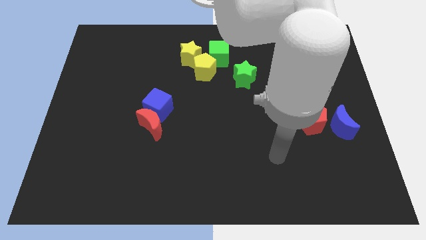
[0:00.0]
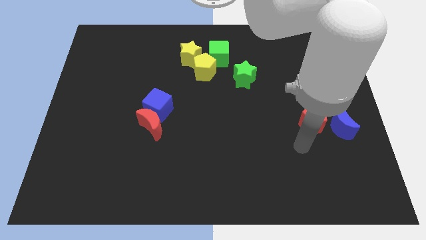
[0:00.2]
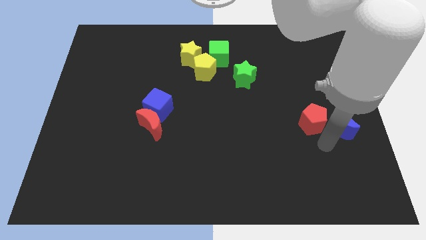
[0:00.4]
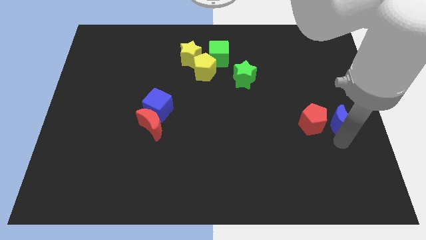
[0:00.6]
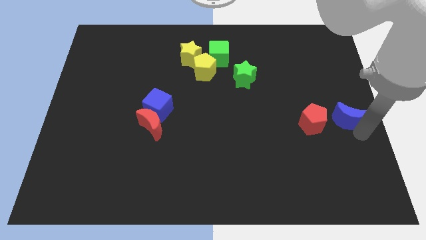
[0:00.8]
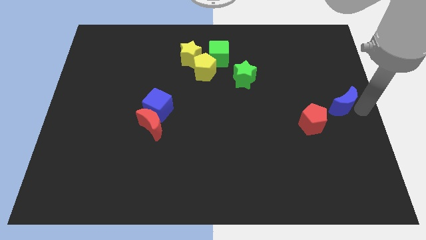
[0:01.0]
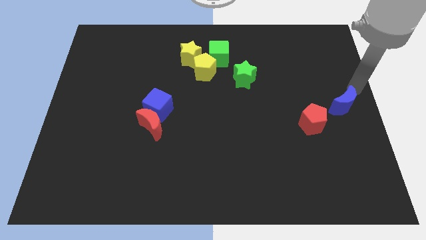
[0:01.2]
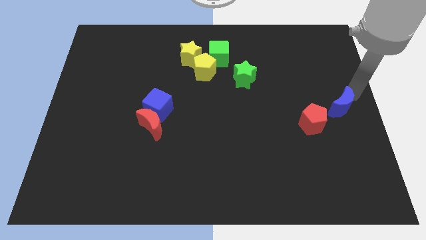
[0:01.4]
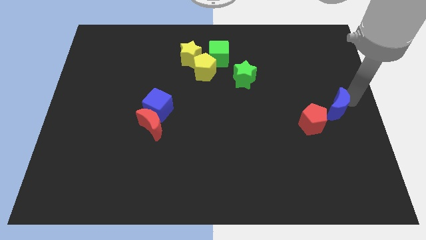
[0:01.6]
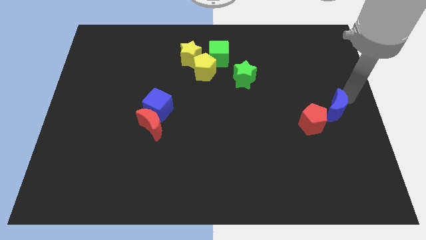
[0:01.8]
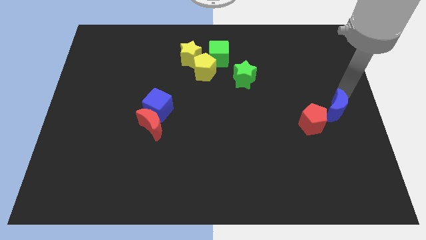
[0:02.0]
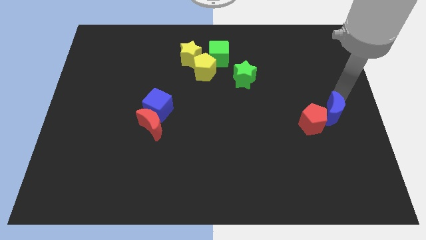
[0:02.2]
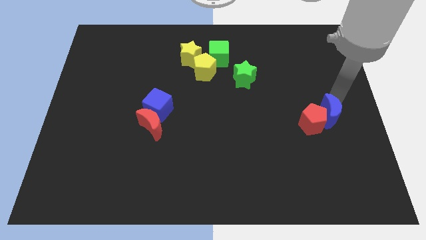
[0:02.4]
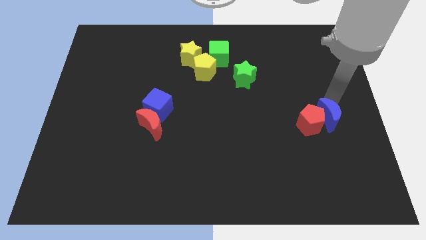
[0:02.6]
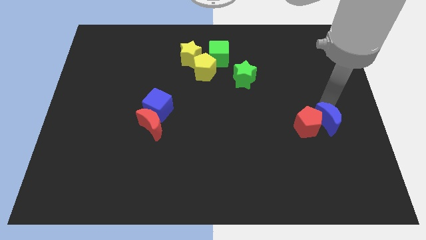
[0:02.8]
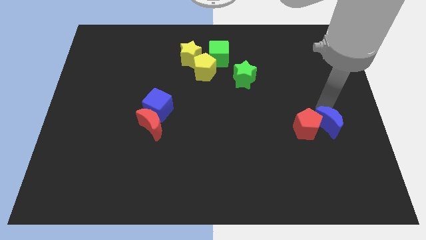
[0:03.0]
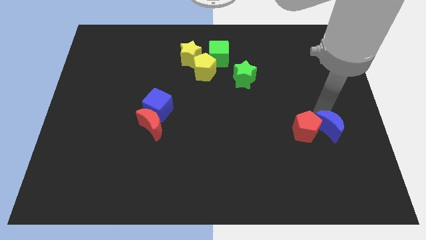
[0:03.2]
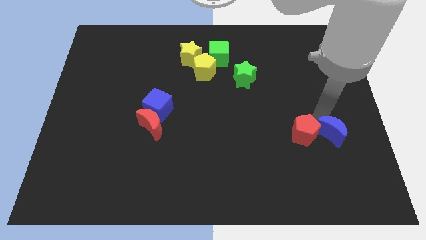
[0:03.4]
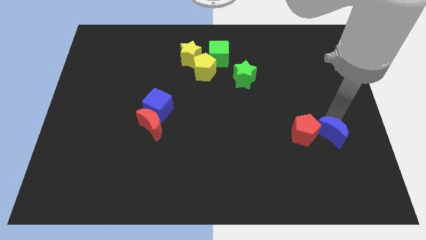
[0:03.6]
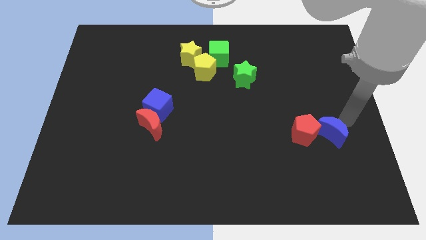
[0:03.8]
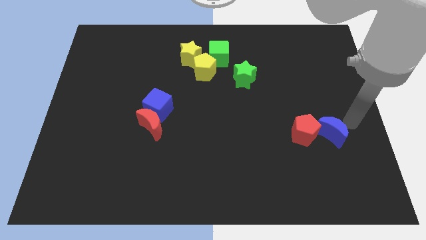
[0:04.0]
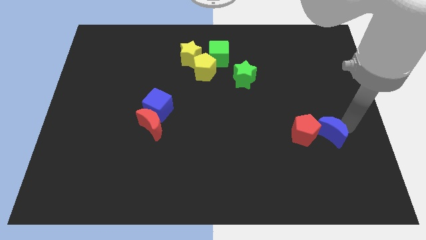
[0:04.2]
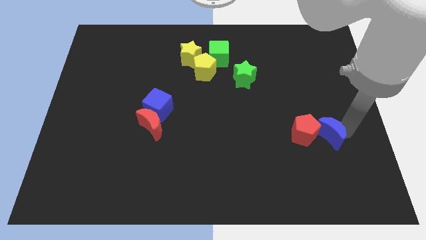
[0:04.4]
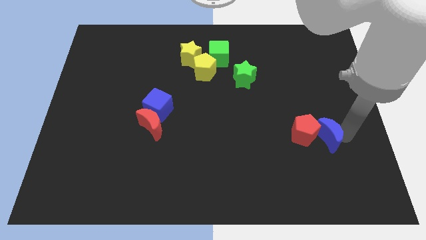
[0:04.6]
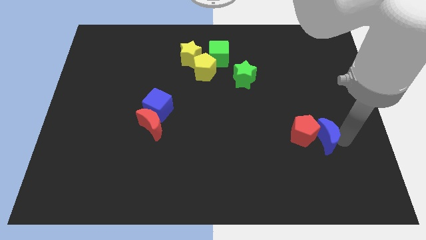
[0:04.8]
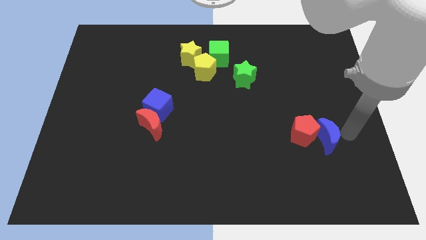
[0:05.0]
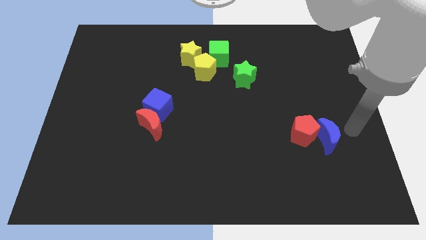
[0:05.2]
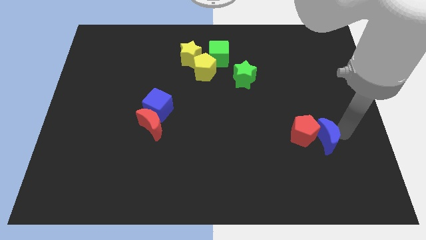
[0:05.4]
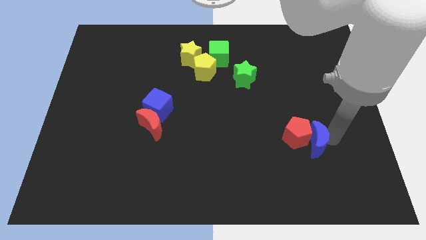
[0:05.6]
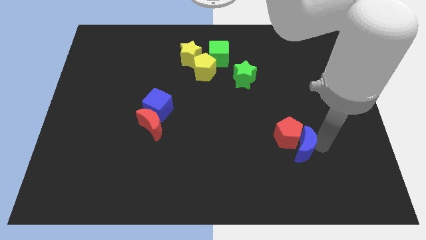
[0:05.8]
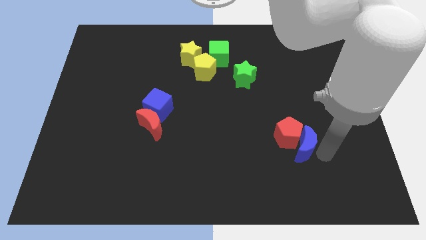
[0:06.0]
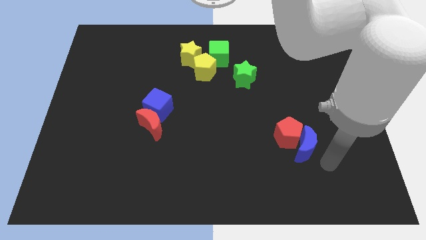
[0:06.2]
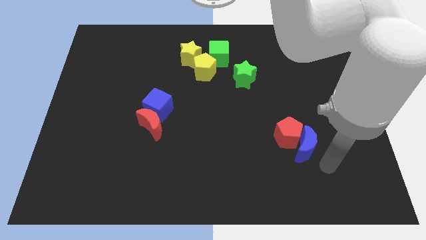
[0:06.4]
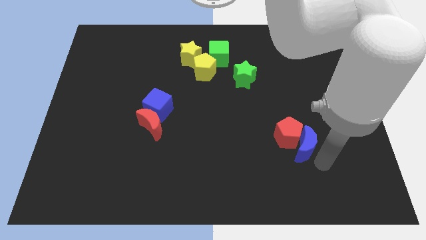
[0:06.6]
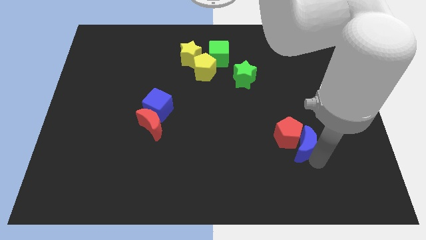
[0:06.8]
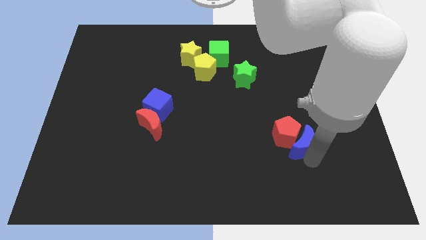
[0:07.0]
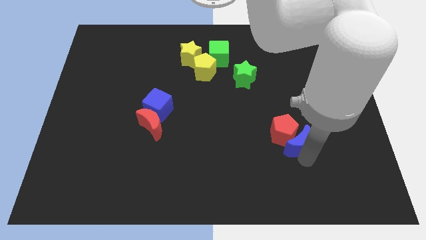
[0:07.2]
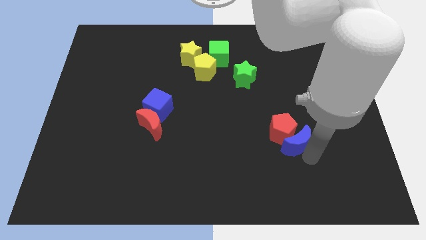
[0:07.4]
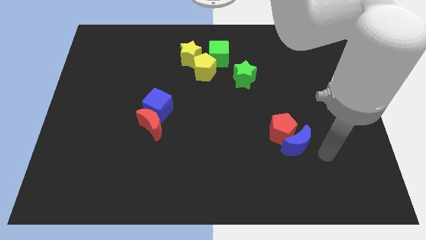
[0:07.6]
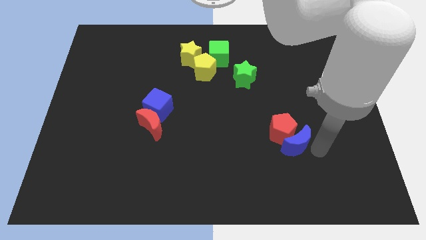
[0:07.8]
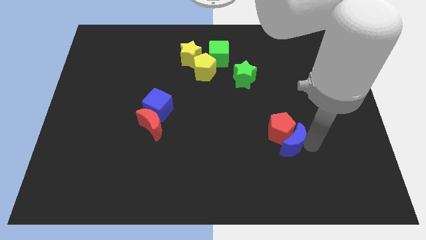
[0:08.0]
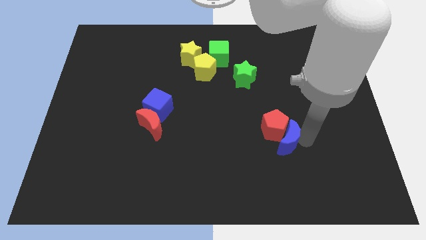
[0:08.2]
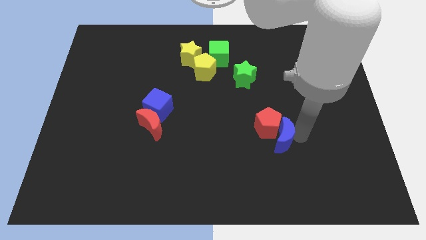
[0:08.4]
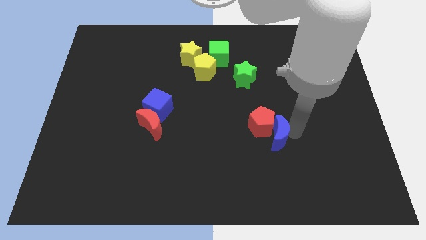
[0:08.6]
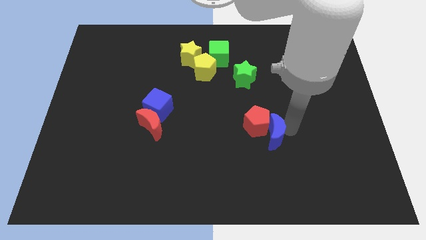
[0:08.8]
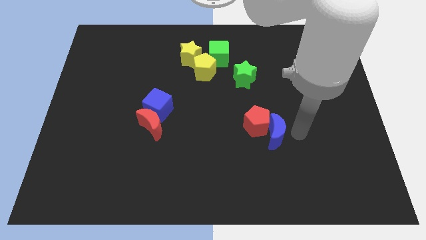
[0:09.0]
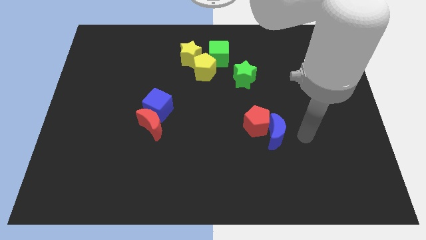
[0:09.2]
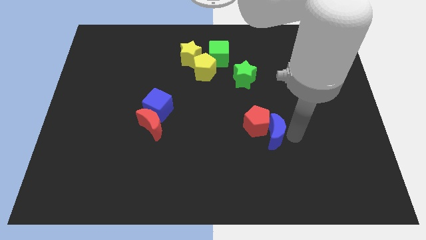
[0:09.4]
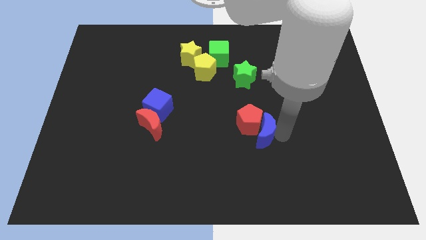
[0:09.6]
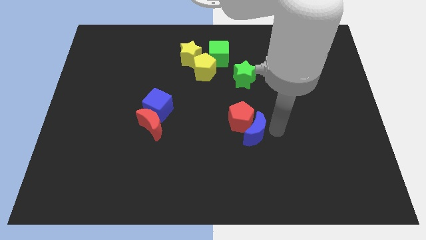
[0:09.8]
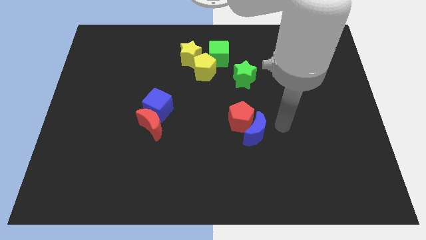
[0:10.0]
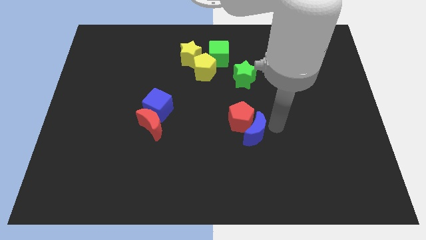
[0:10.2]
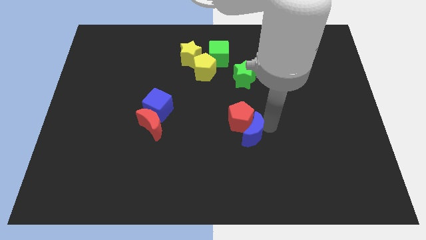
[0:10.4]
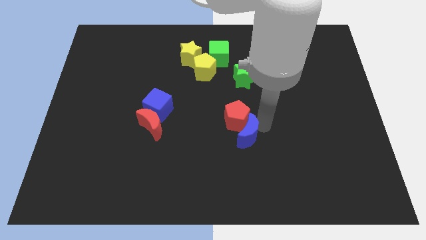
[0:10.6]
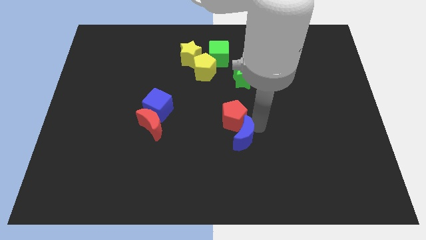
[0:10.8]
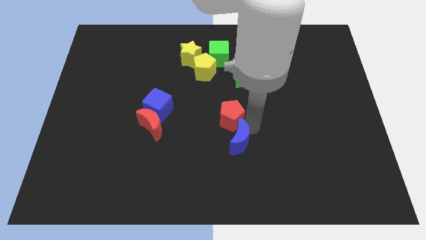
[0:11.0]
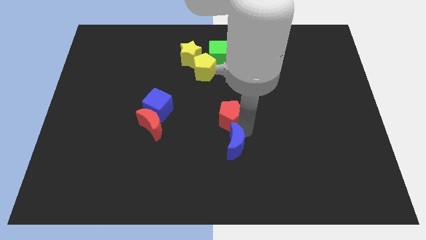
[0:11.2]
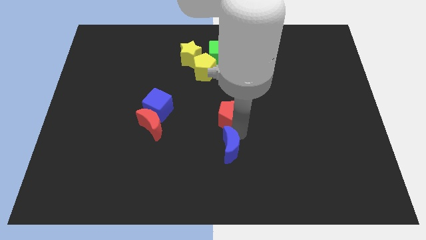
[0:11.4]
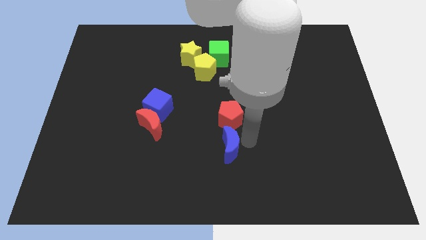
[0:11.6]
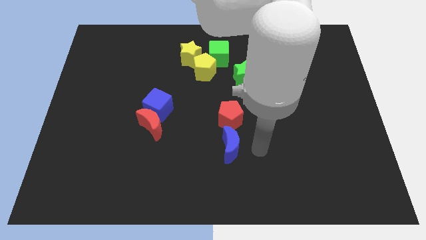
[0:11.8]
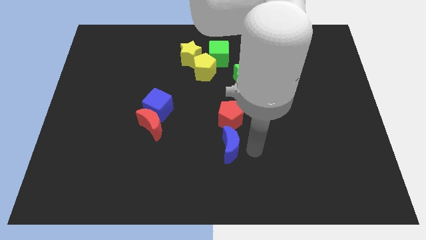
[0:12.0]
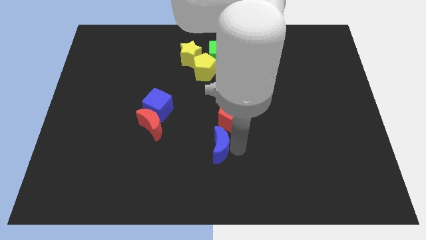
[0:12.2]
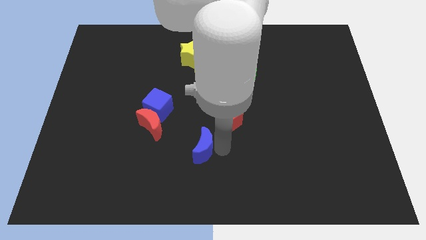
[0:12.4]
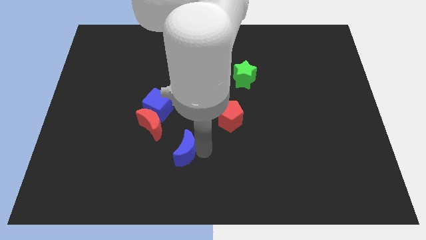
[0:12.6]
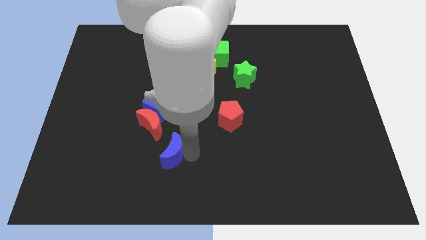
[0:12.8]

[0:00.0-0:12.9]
push the blue moon to the bottom side of the blue cube
